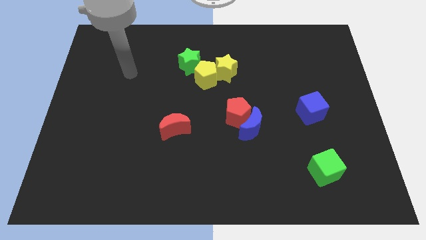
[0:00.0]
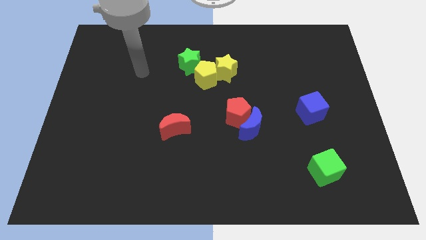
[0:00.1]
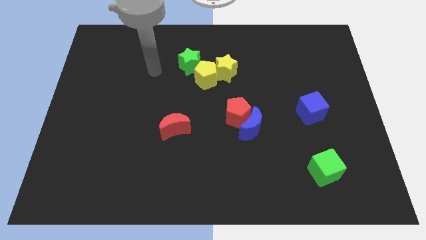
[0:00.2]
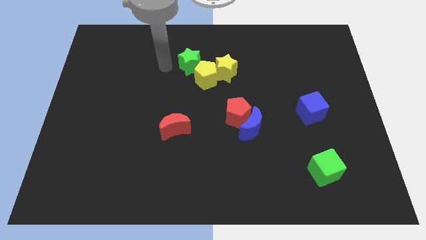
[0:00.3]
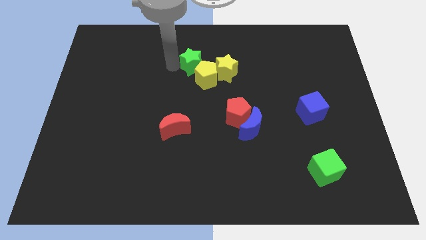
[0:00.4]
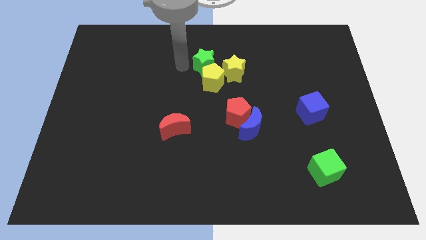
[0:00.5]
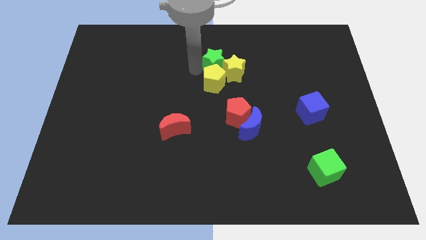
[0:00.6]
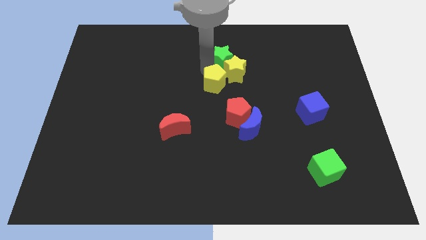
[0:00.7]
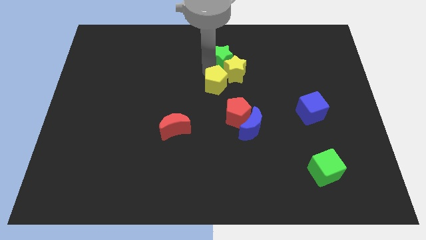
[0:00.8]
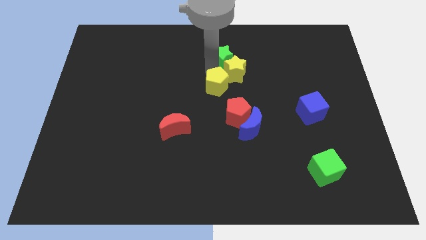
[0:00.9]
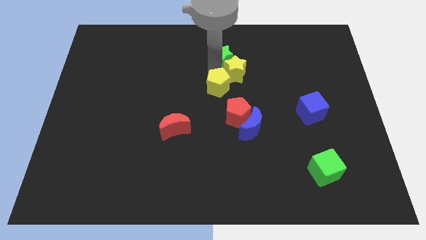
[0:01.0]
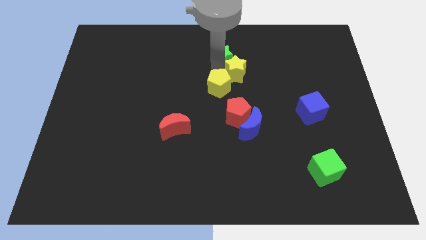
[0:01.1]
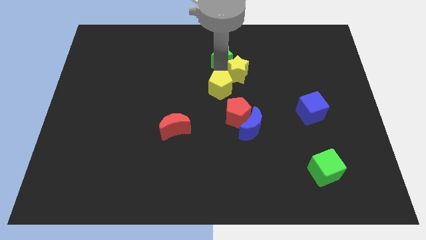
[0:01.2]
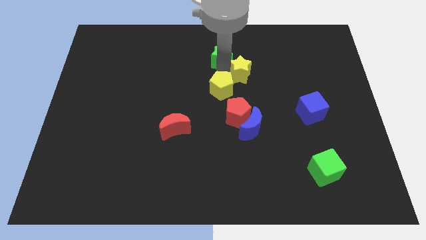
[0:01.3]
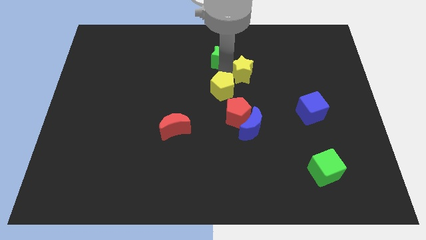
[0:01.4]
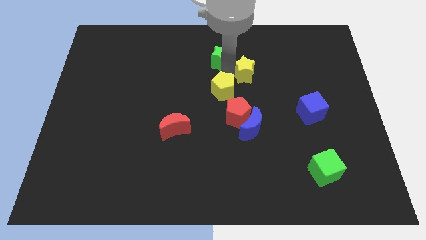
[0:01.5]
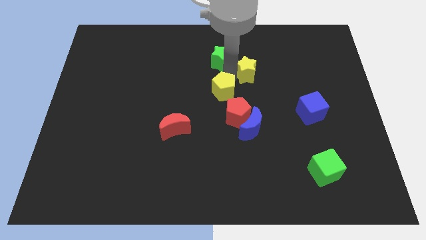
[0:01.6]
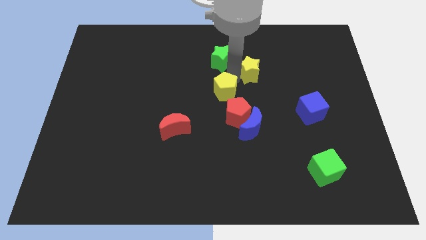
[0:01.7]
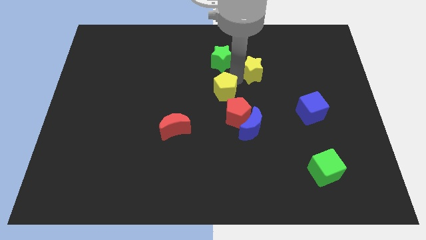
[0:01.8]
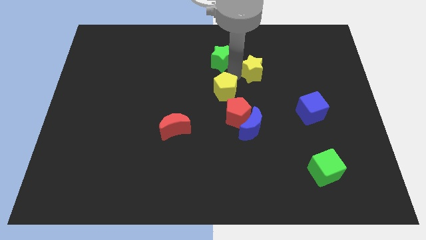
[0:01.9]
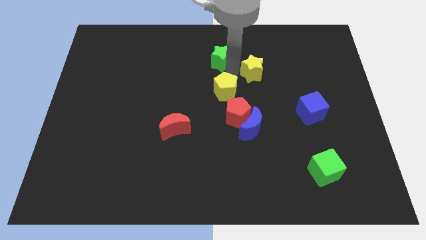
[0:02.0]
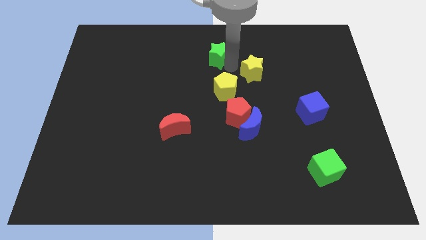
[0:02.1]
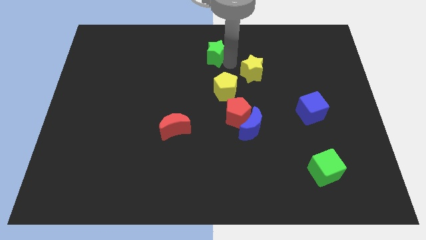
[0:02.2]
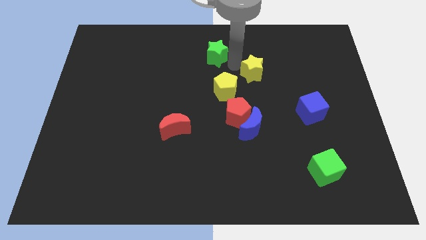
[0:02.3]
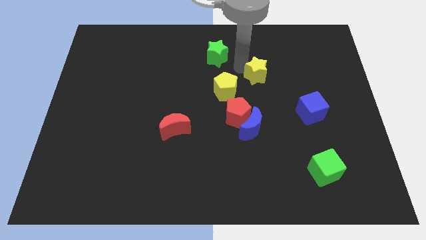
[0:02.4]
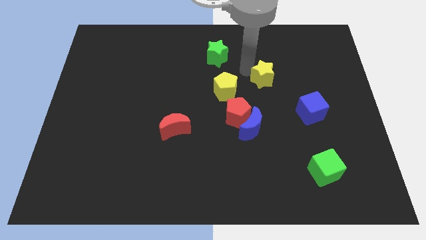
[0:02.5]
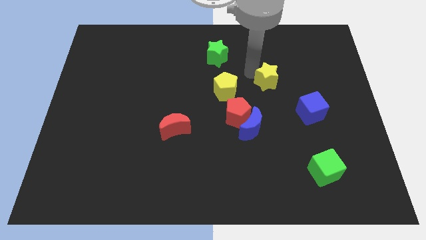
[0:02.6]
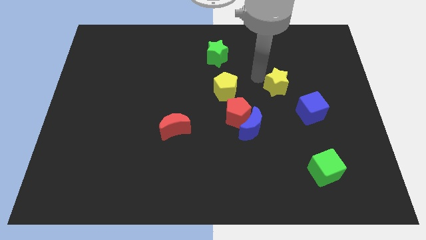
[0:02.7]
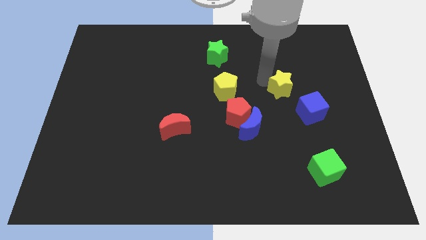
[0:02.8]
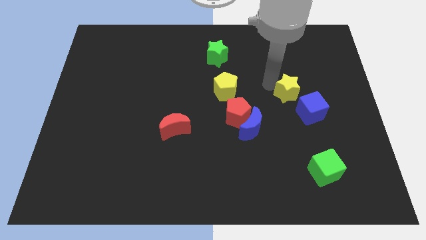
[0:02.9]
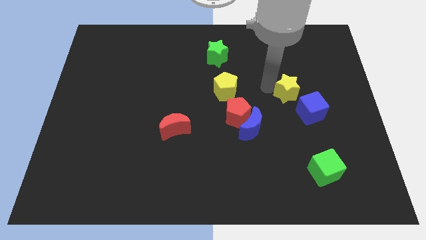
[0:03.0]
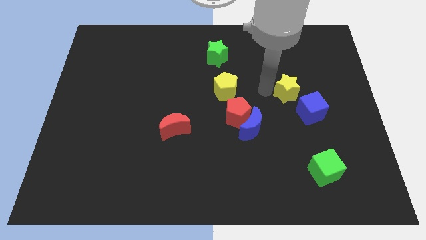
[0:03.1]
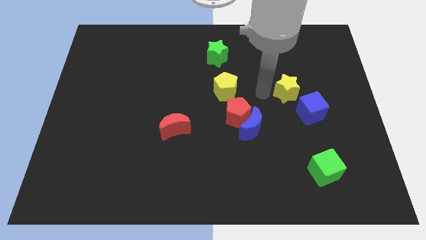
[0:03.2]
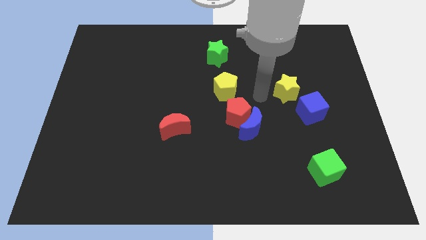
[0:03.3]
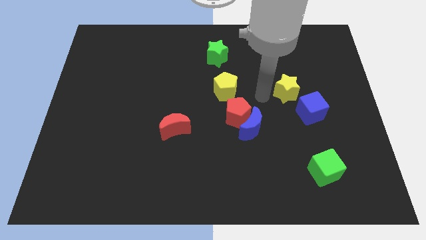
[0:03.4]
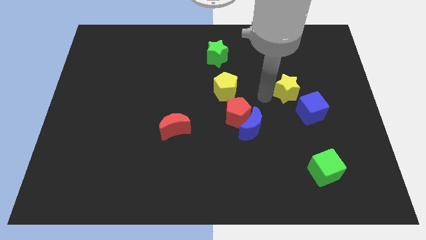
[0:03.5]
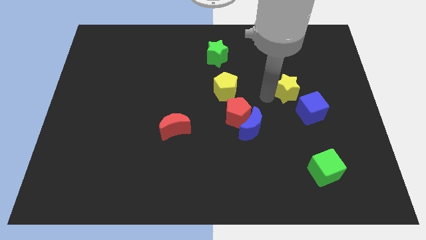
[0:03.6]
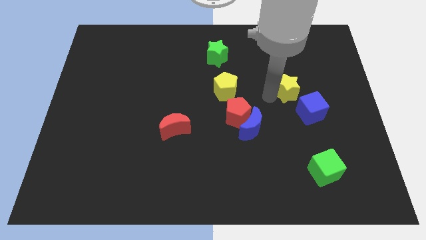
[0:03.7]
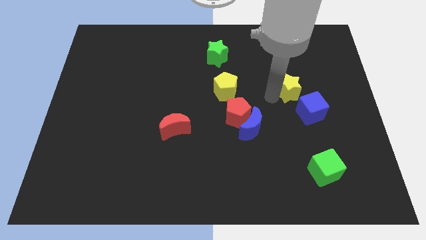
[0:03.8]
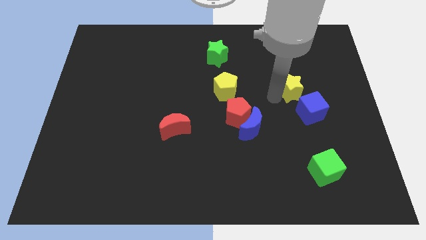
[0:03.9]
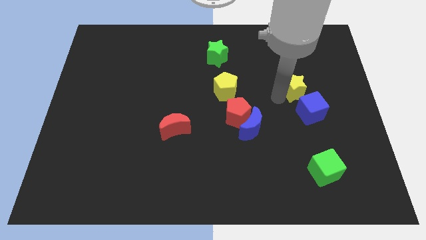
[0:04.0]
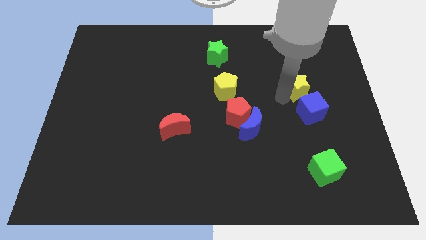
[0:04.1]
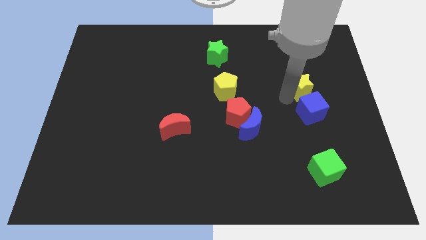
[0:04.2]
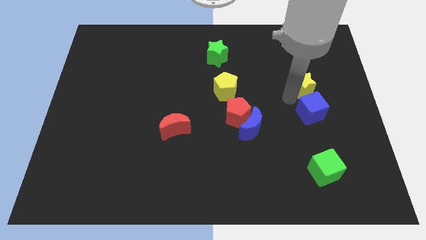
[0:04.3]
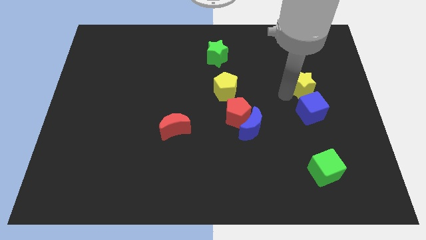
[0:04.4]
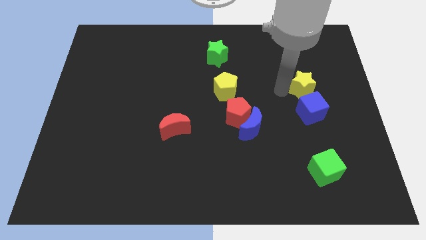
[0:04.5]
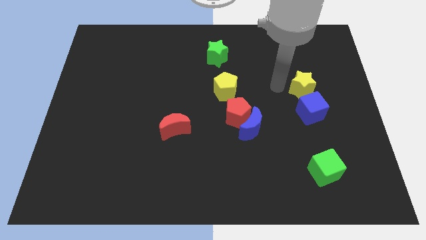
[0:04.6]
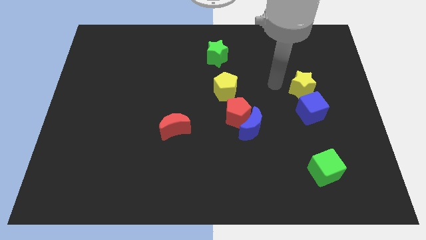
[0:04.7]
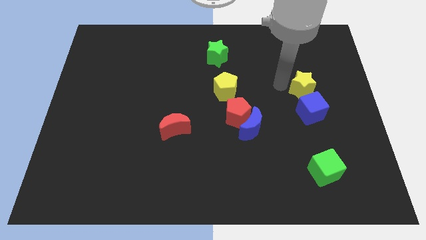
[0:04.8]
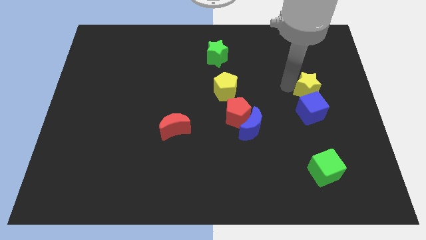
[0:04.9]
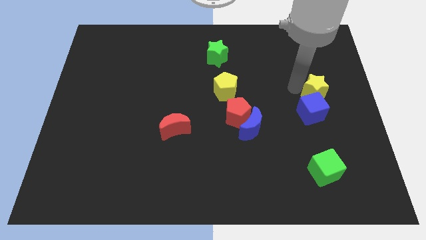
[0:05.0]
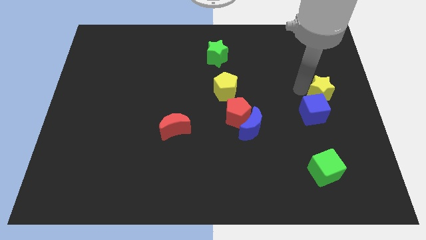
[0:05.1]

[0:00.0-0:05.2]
move the yellow star to the center right
